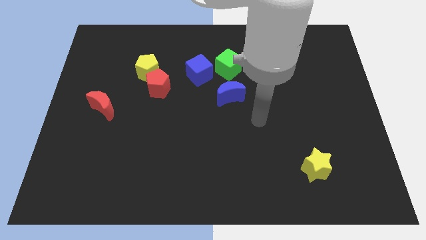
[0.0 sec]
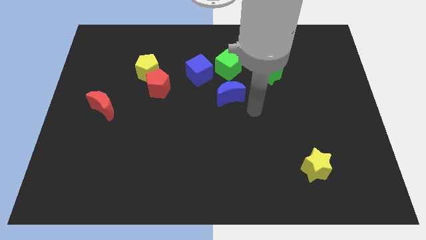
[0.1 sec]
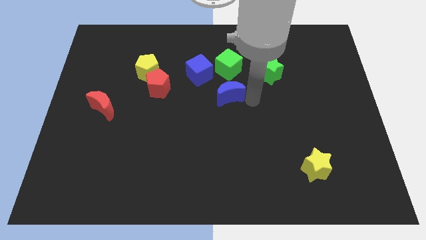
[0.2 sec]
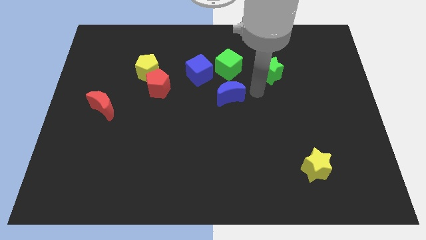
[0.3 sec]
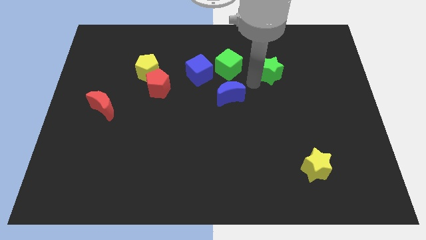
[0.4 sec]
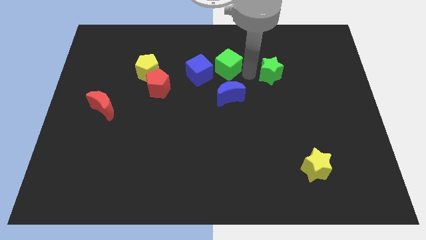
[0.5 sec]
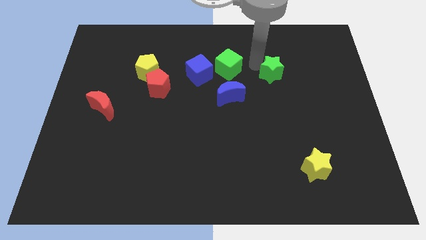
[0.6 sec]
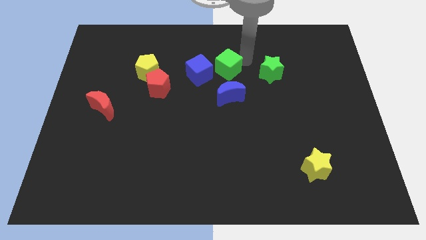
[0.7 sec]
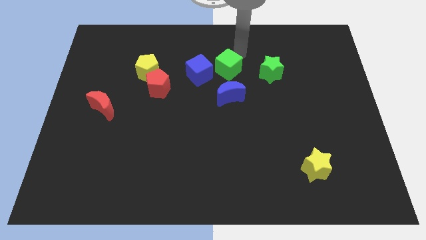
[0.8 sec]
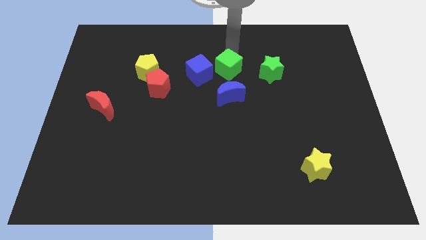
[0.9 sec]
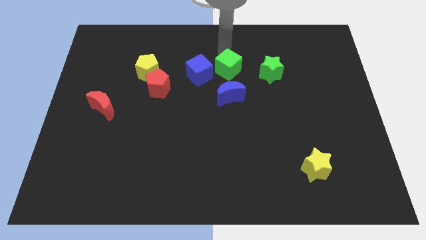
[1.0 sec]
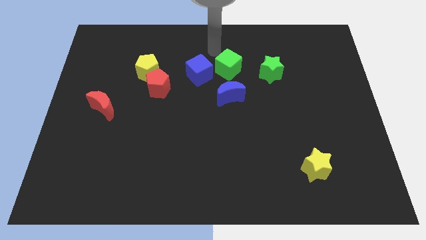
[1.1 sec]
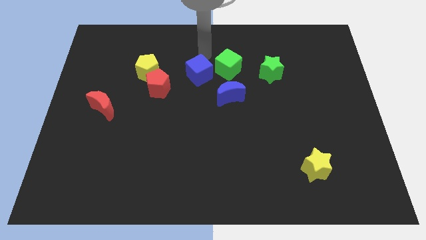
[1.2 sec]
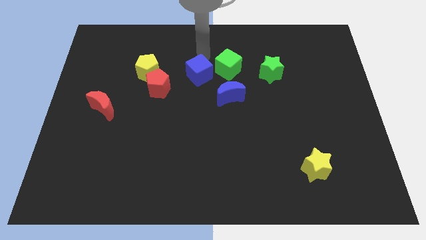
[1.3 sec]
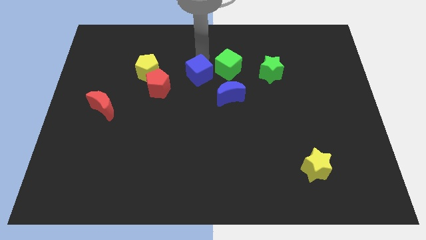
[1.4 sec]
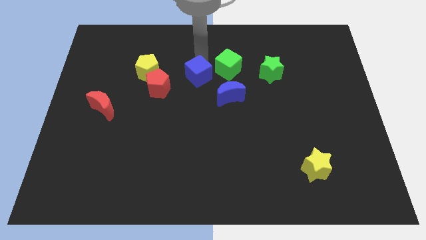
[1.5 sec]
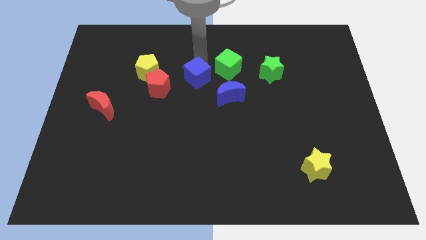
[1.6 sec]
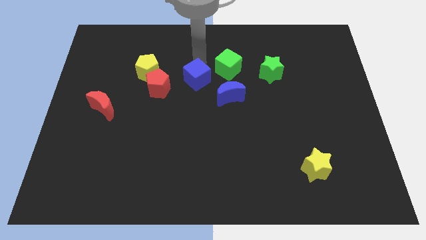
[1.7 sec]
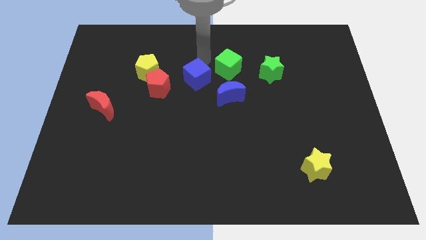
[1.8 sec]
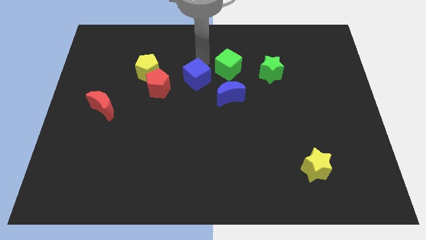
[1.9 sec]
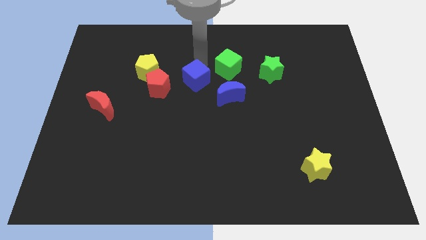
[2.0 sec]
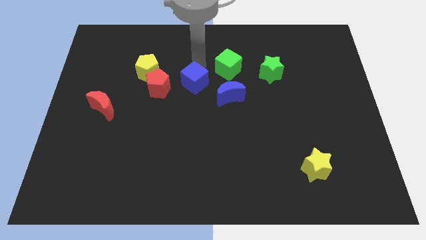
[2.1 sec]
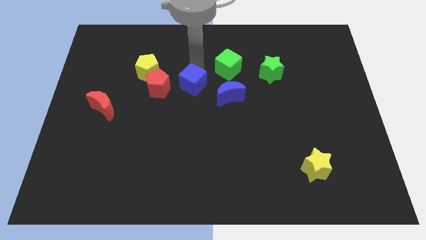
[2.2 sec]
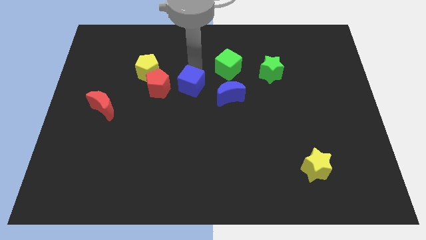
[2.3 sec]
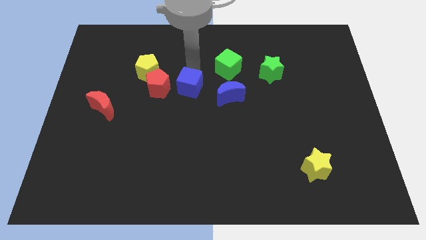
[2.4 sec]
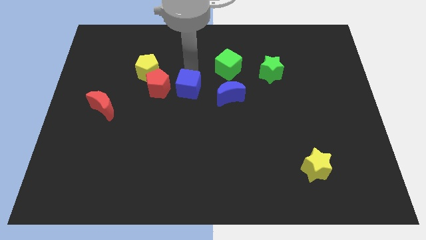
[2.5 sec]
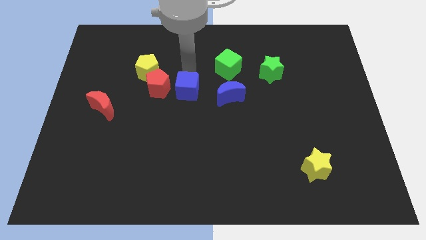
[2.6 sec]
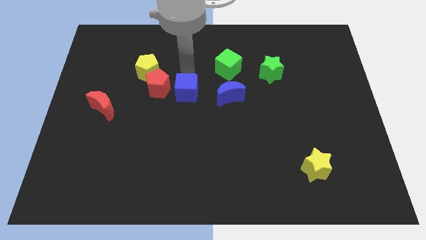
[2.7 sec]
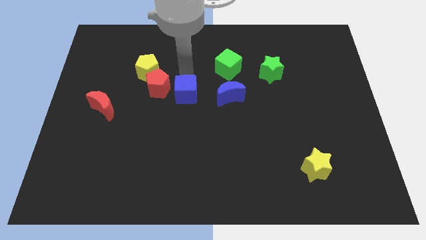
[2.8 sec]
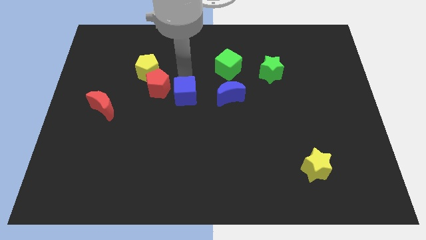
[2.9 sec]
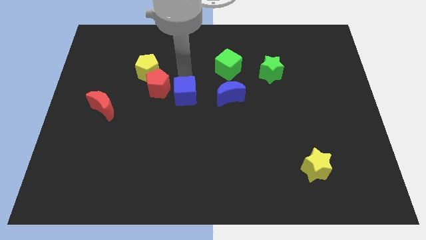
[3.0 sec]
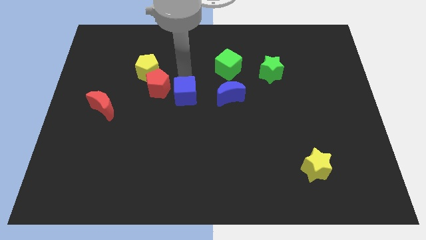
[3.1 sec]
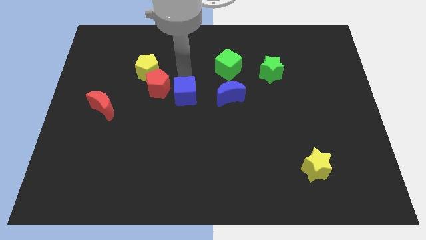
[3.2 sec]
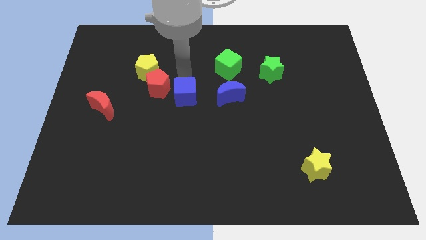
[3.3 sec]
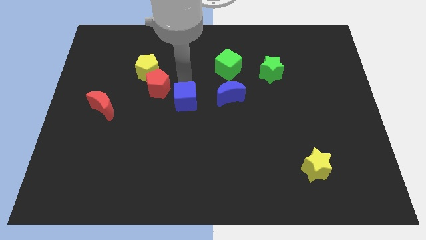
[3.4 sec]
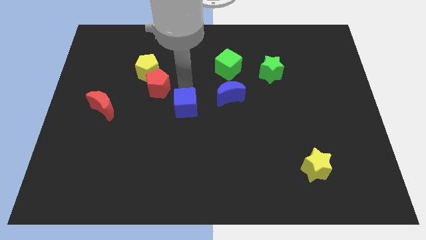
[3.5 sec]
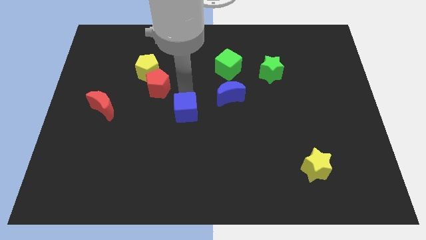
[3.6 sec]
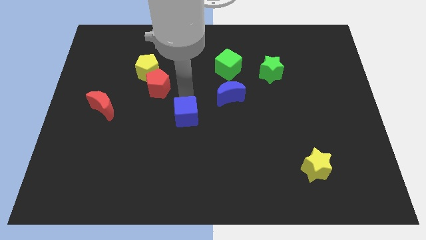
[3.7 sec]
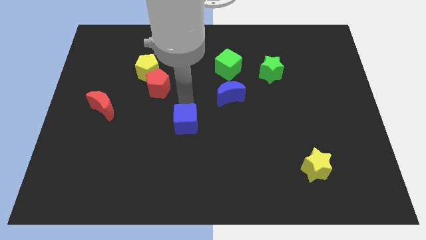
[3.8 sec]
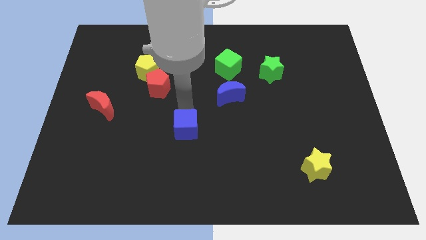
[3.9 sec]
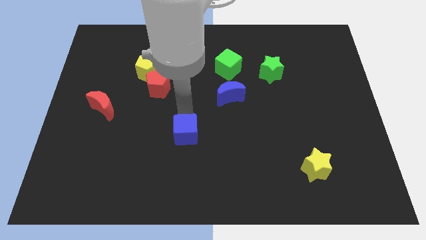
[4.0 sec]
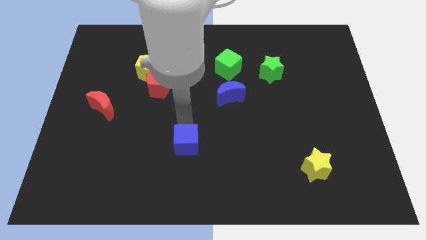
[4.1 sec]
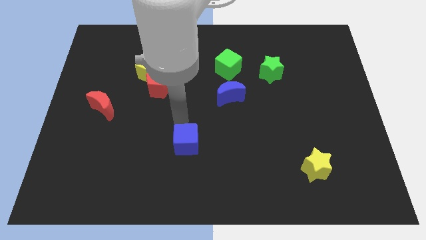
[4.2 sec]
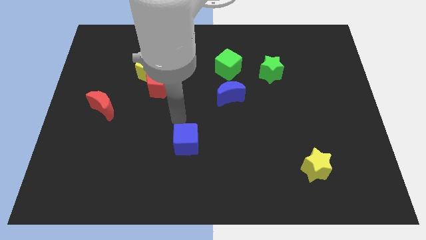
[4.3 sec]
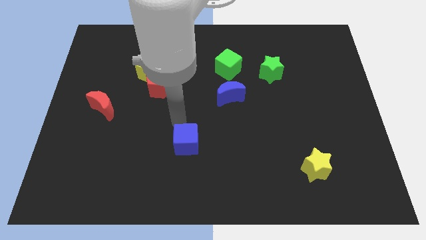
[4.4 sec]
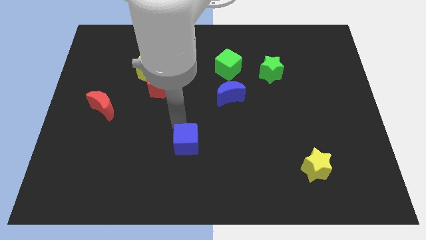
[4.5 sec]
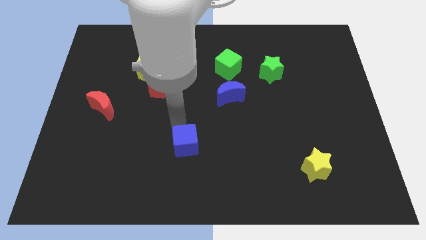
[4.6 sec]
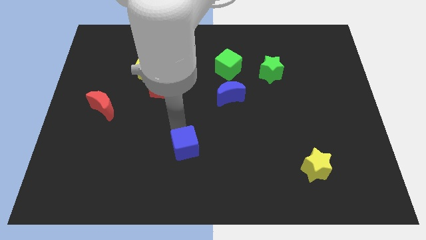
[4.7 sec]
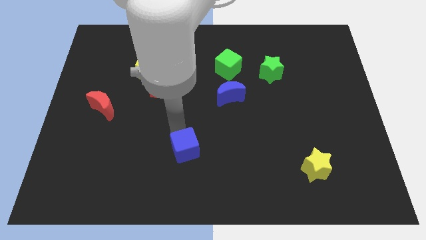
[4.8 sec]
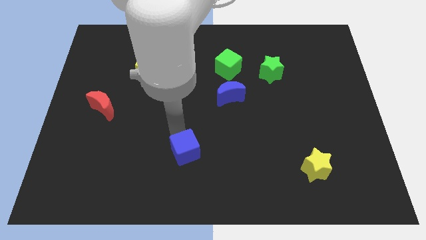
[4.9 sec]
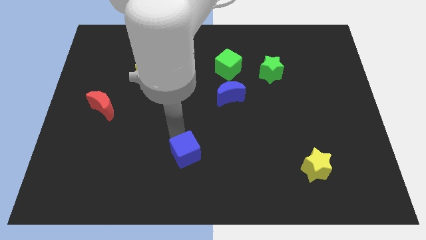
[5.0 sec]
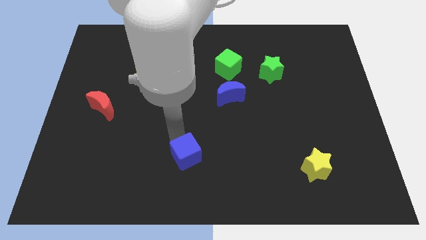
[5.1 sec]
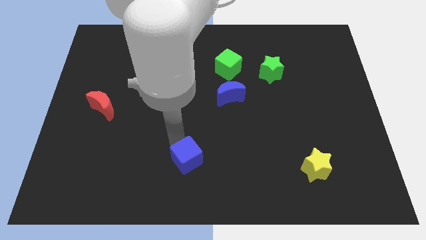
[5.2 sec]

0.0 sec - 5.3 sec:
slide the blue cube to the bottom

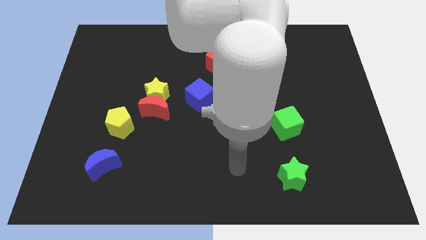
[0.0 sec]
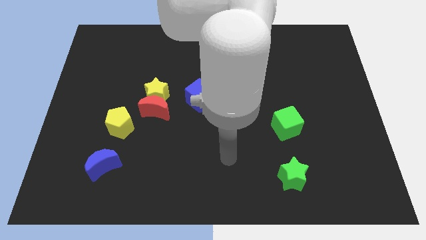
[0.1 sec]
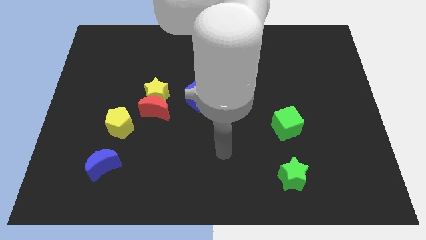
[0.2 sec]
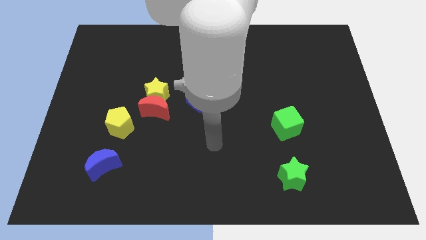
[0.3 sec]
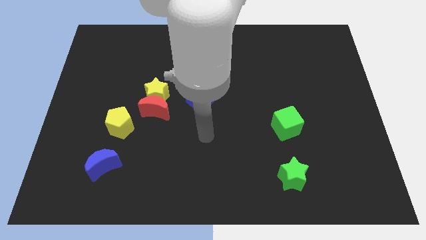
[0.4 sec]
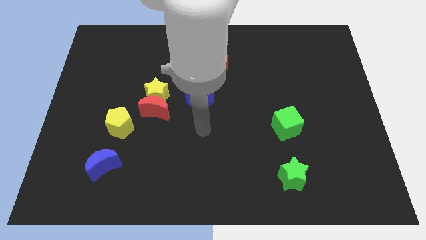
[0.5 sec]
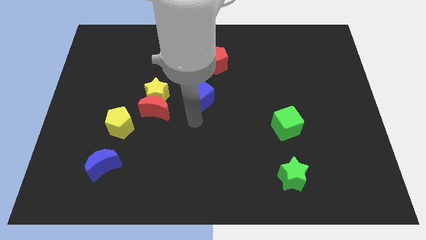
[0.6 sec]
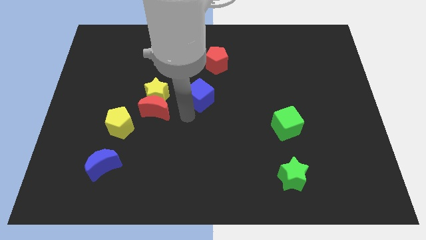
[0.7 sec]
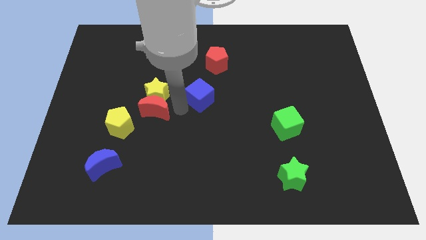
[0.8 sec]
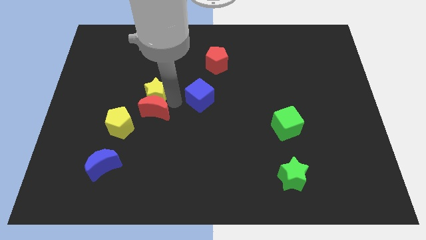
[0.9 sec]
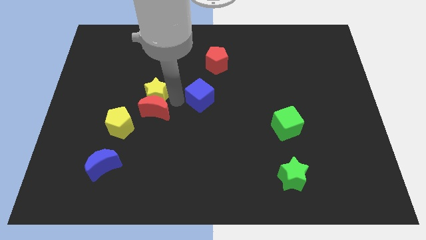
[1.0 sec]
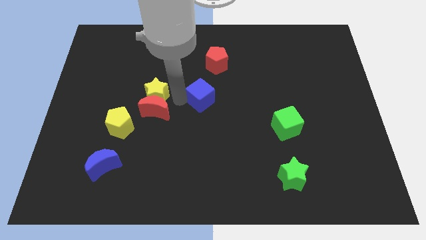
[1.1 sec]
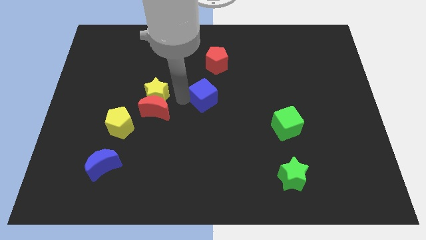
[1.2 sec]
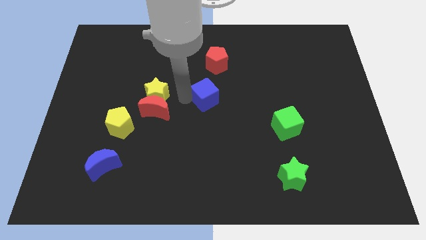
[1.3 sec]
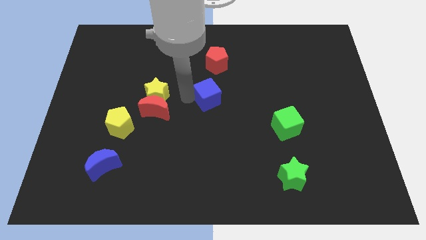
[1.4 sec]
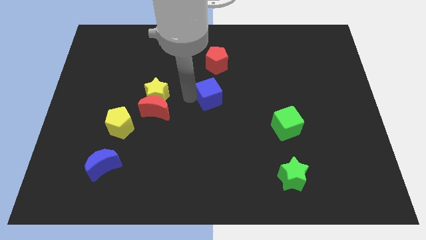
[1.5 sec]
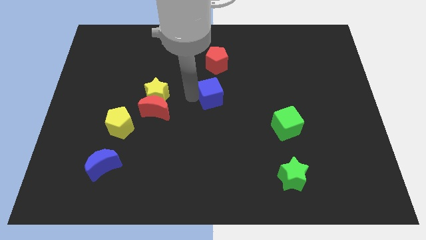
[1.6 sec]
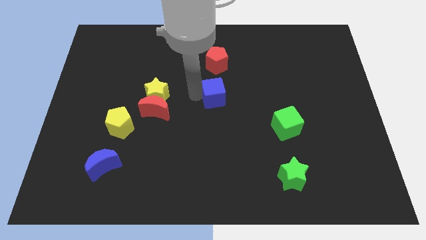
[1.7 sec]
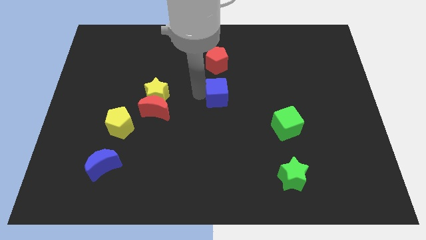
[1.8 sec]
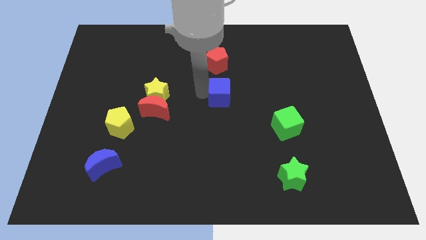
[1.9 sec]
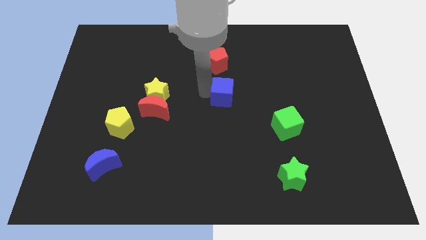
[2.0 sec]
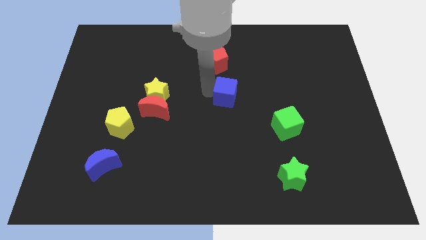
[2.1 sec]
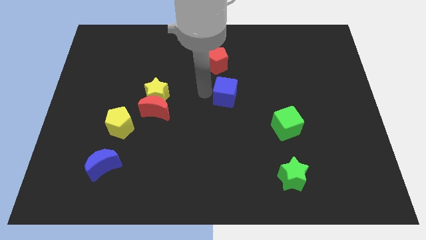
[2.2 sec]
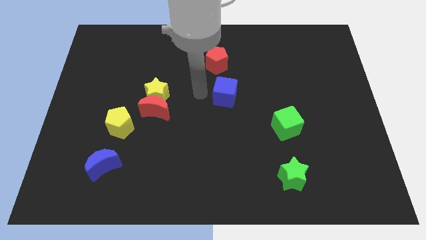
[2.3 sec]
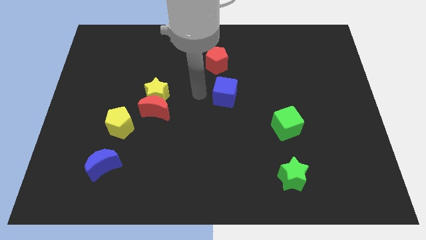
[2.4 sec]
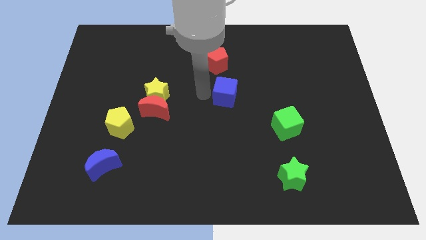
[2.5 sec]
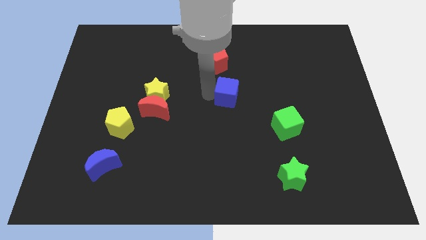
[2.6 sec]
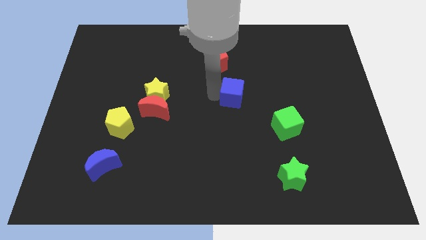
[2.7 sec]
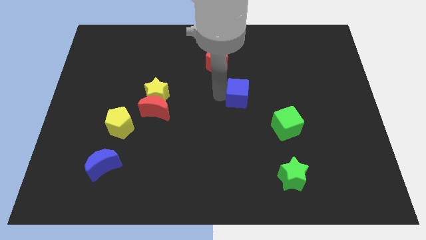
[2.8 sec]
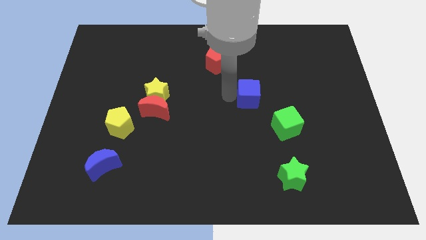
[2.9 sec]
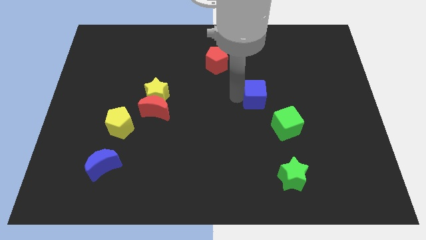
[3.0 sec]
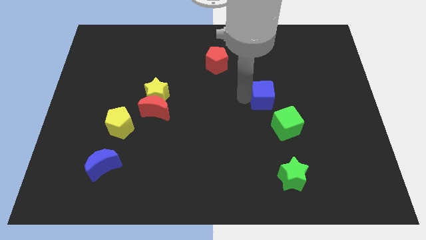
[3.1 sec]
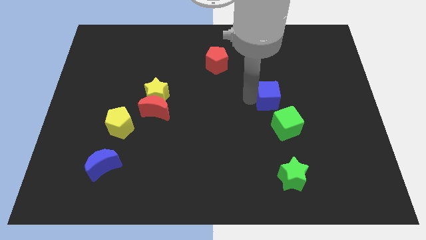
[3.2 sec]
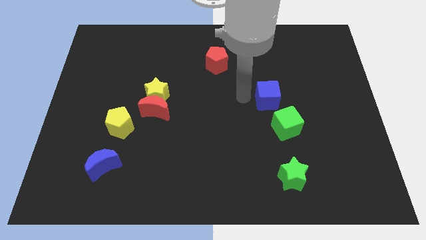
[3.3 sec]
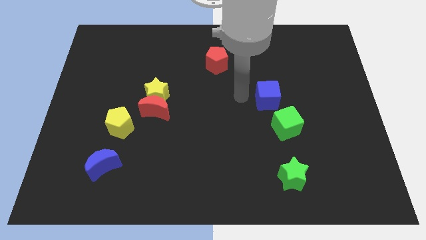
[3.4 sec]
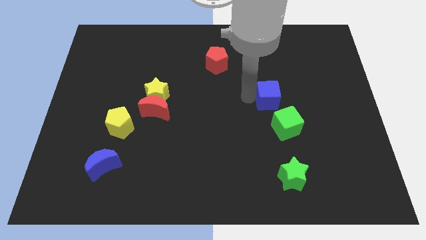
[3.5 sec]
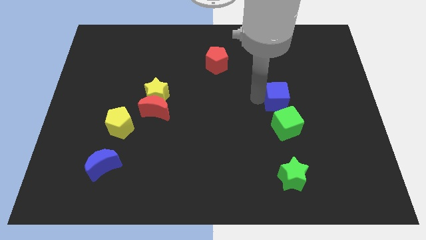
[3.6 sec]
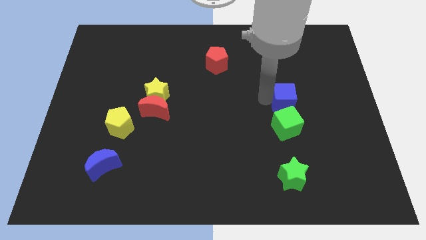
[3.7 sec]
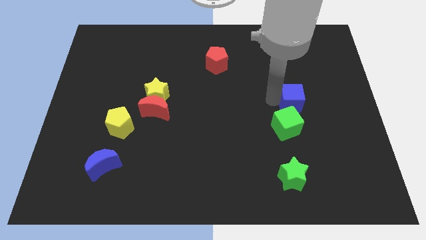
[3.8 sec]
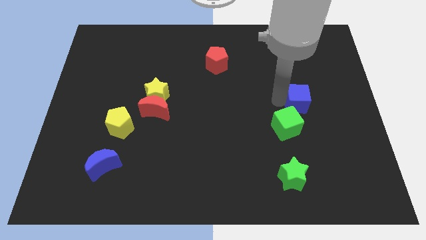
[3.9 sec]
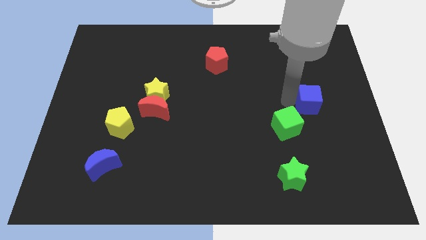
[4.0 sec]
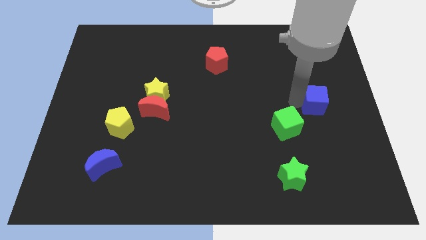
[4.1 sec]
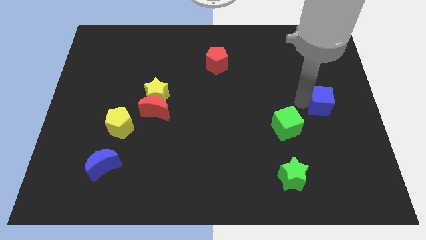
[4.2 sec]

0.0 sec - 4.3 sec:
slide the blue cube to the right side of the board
